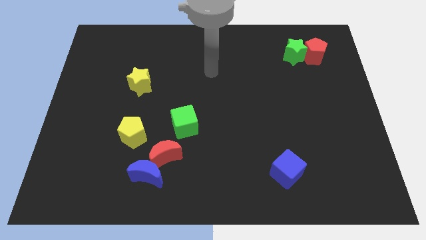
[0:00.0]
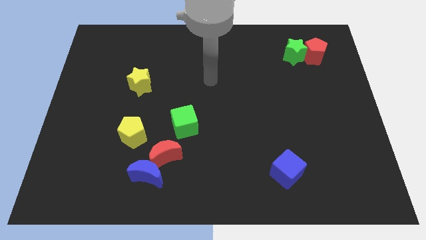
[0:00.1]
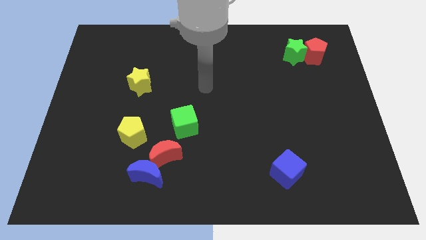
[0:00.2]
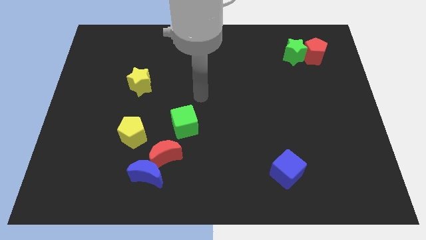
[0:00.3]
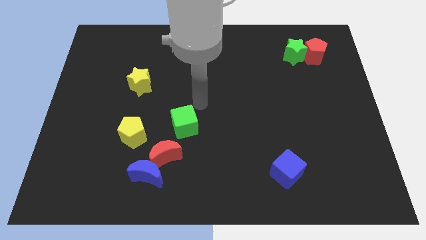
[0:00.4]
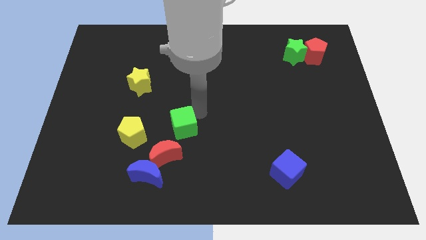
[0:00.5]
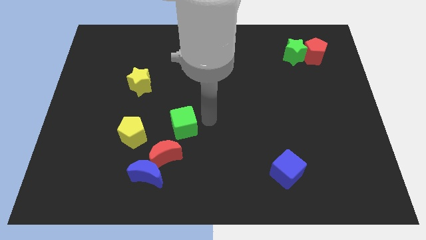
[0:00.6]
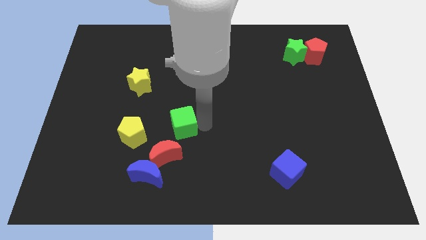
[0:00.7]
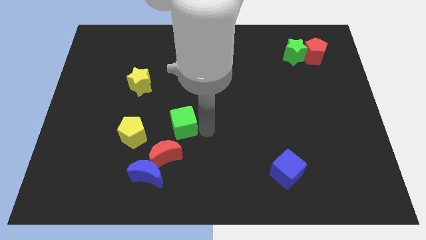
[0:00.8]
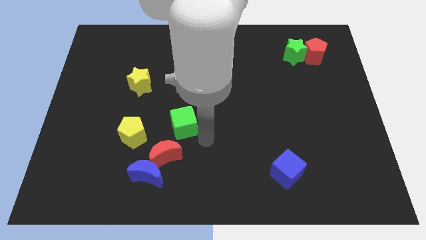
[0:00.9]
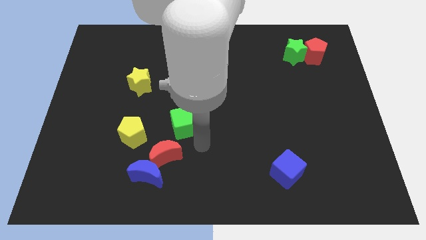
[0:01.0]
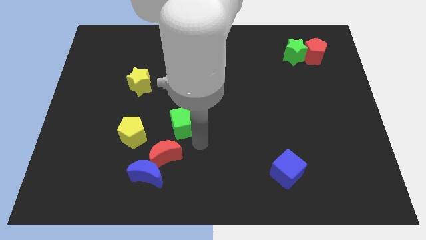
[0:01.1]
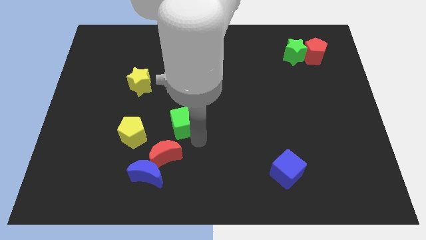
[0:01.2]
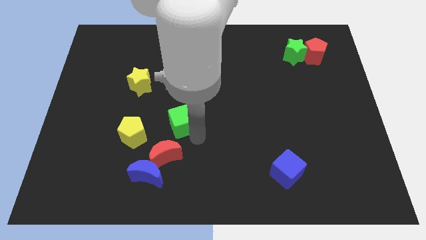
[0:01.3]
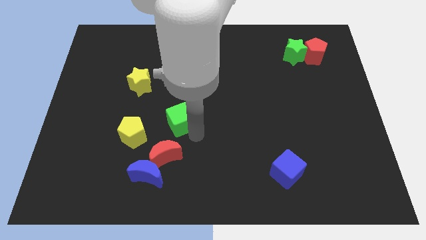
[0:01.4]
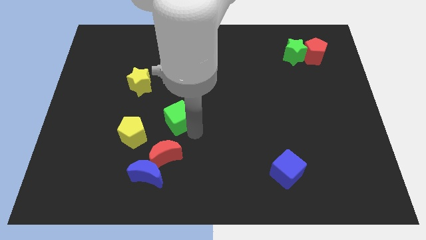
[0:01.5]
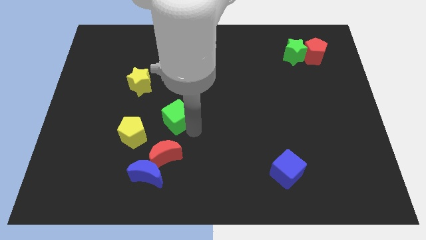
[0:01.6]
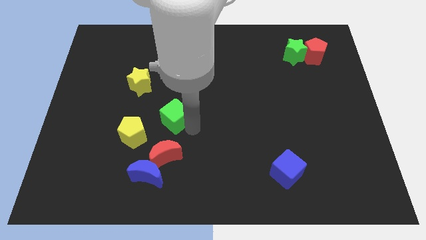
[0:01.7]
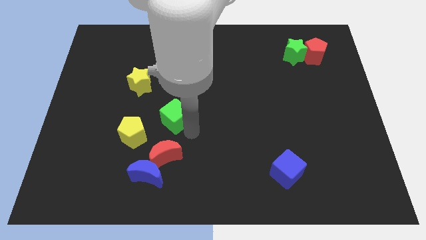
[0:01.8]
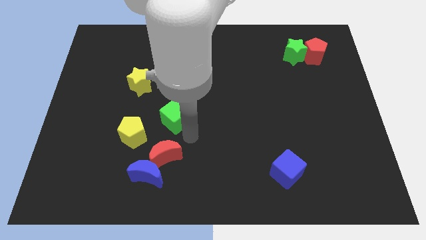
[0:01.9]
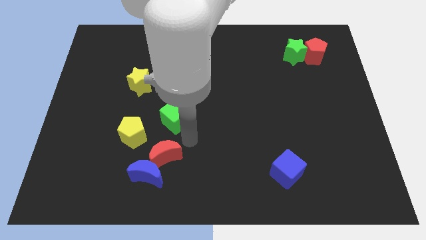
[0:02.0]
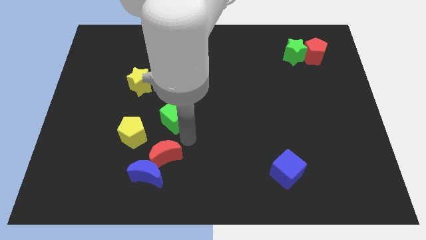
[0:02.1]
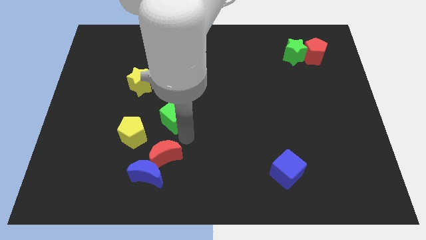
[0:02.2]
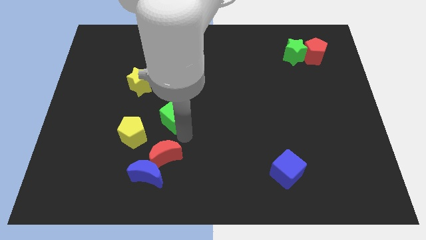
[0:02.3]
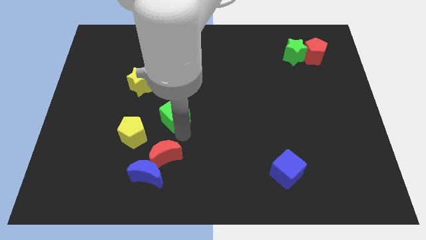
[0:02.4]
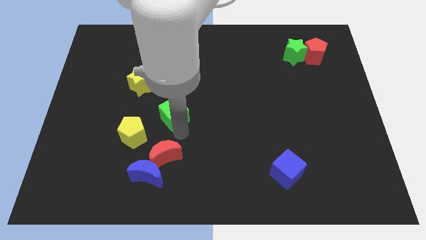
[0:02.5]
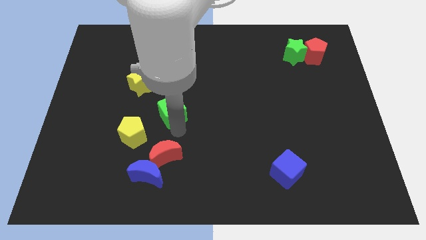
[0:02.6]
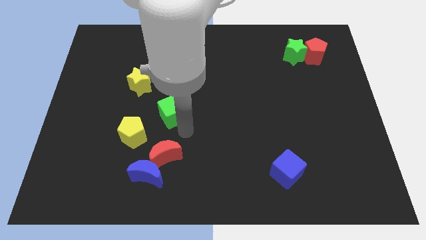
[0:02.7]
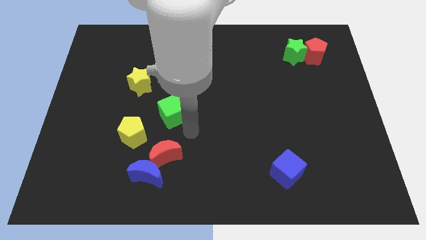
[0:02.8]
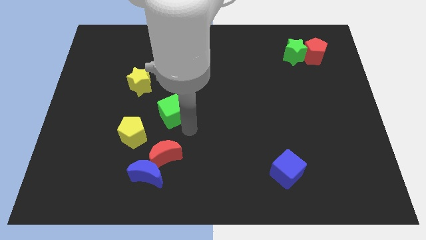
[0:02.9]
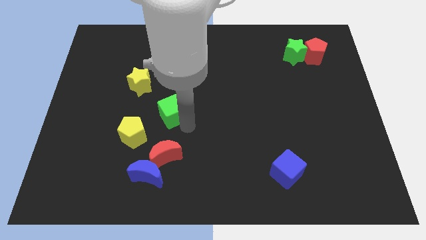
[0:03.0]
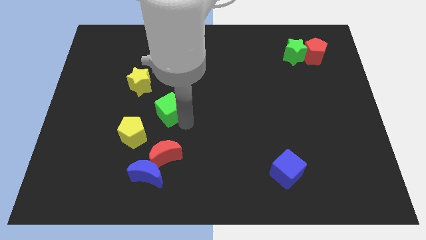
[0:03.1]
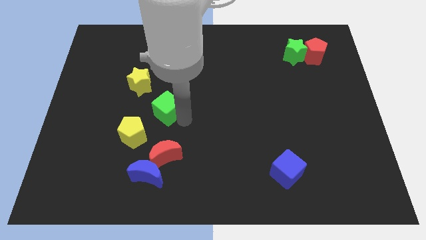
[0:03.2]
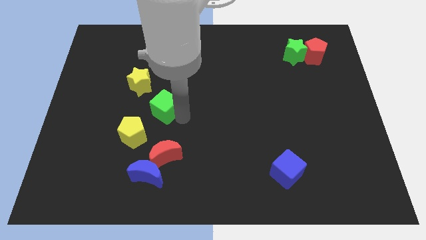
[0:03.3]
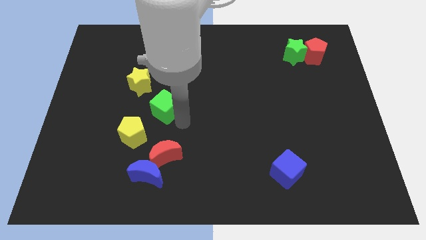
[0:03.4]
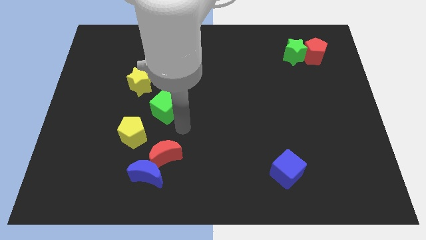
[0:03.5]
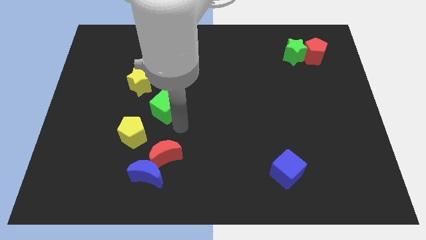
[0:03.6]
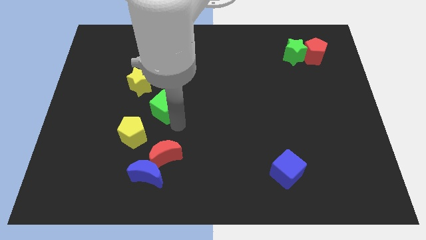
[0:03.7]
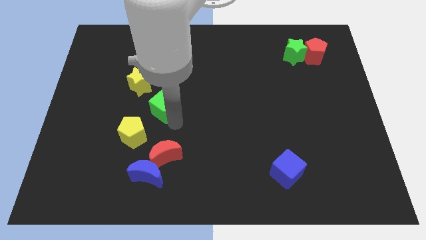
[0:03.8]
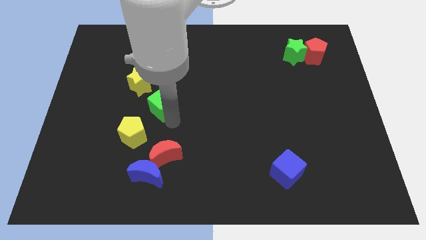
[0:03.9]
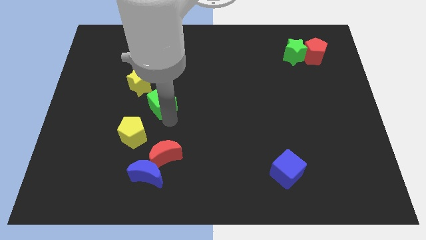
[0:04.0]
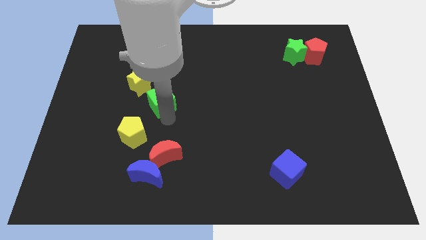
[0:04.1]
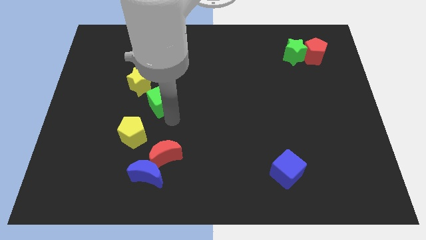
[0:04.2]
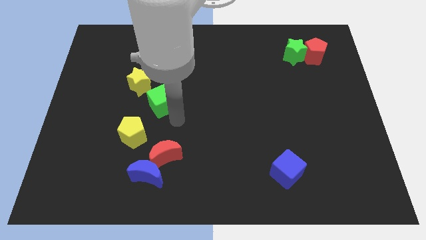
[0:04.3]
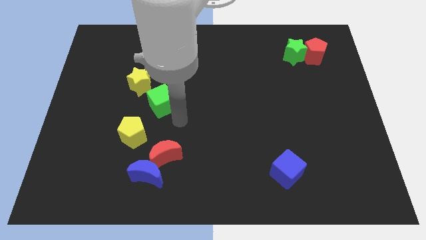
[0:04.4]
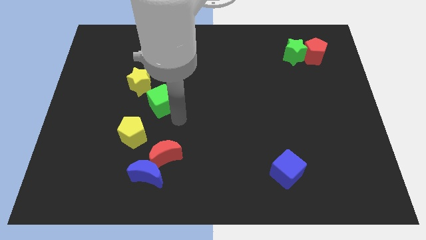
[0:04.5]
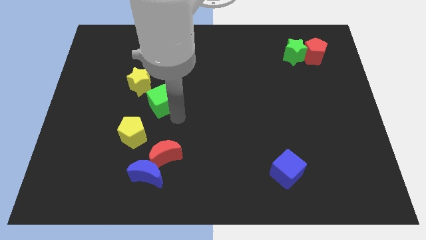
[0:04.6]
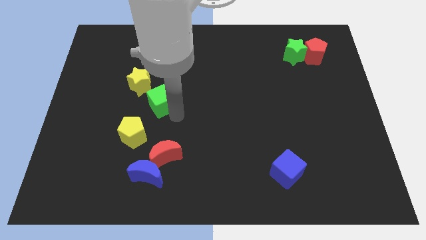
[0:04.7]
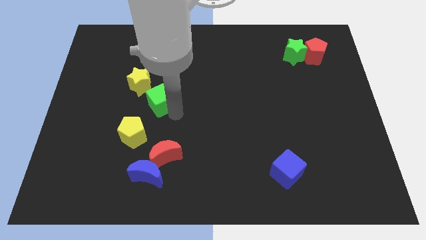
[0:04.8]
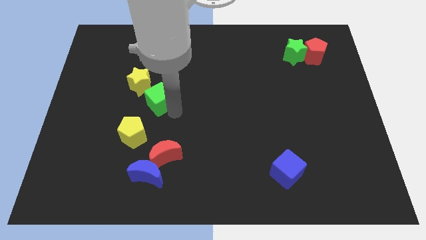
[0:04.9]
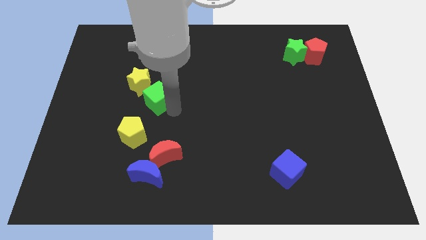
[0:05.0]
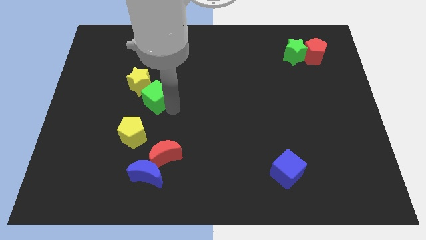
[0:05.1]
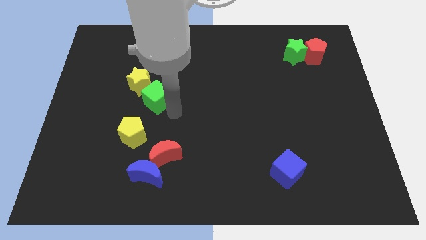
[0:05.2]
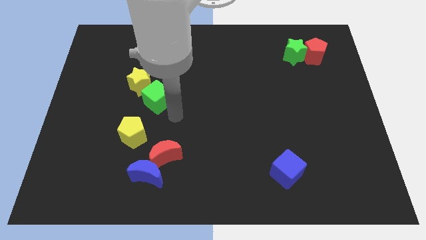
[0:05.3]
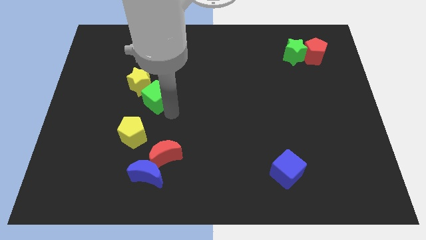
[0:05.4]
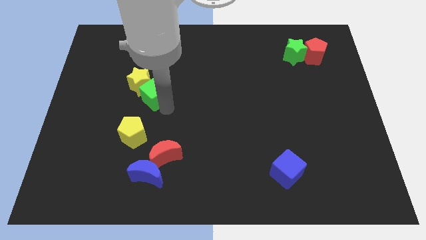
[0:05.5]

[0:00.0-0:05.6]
slide the green cube close to the yellow star

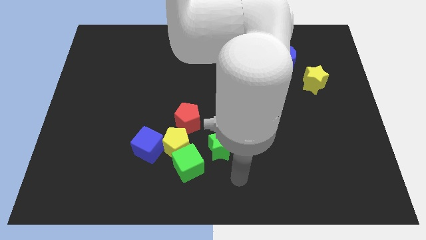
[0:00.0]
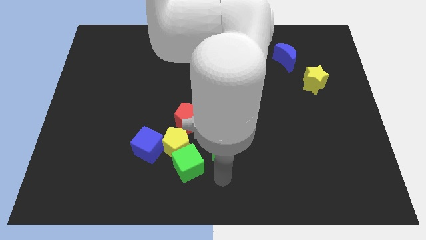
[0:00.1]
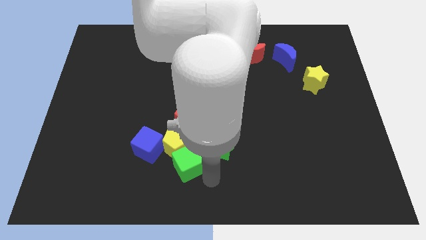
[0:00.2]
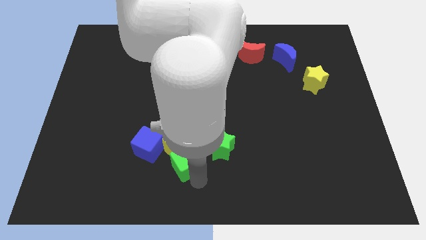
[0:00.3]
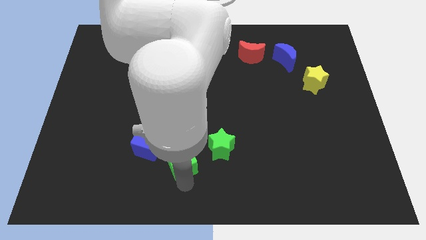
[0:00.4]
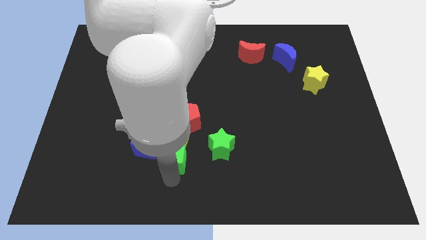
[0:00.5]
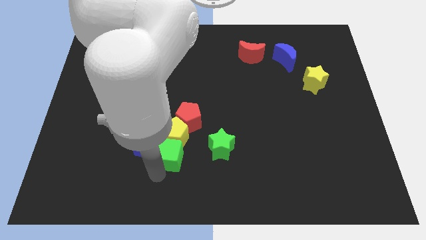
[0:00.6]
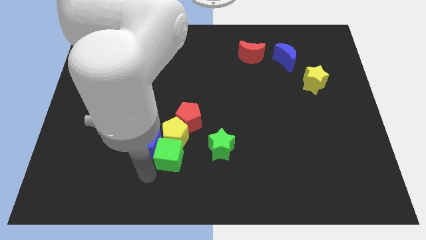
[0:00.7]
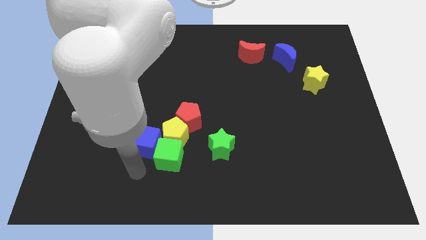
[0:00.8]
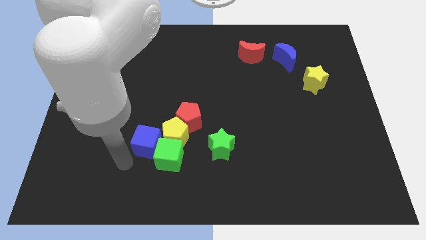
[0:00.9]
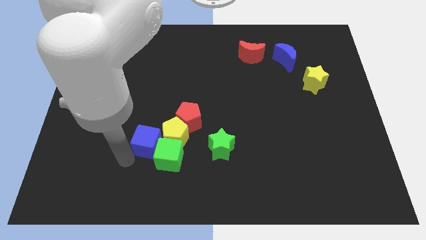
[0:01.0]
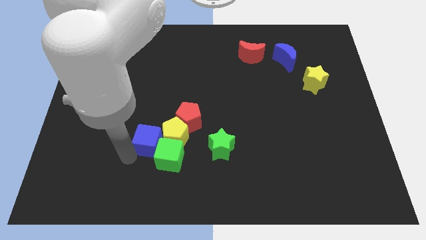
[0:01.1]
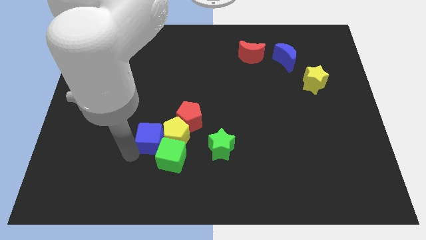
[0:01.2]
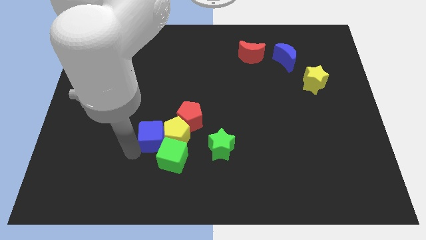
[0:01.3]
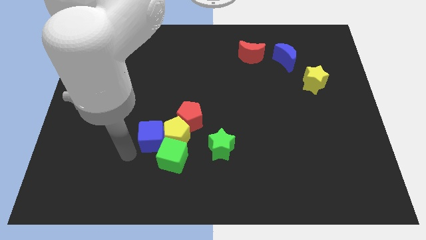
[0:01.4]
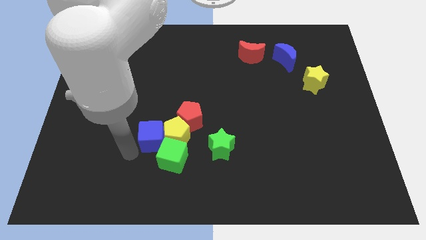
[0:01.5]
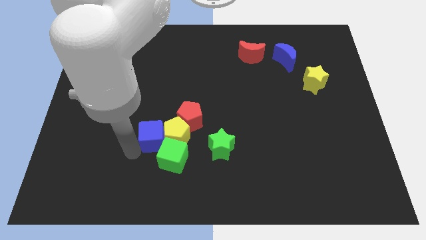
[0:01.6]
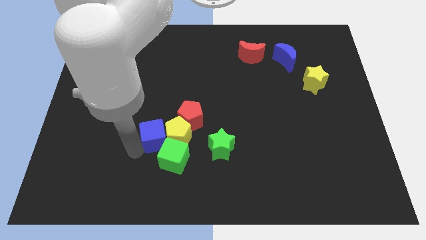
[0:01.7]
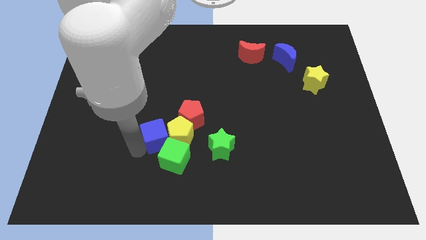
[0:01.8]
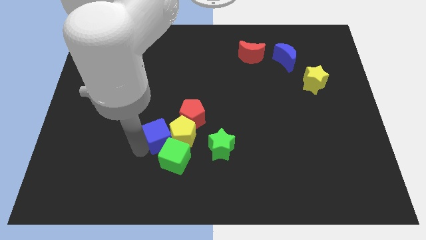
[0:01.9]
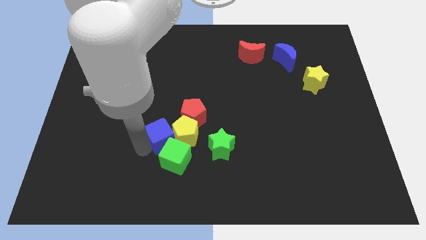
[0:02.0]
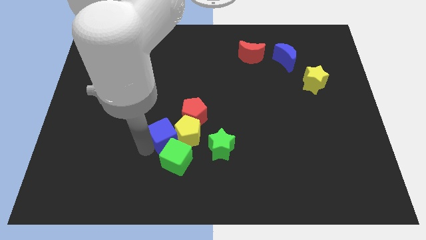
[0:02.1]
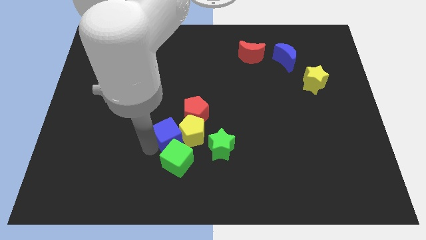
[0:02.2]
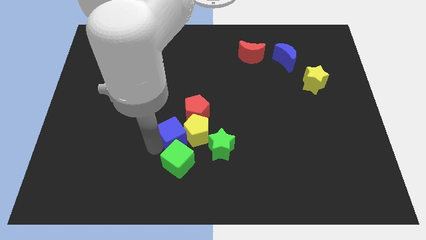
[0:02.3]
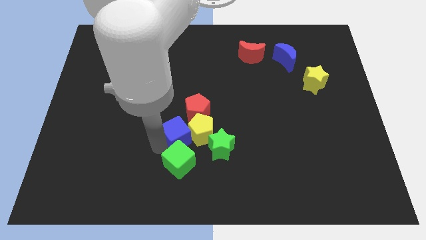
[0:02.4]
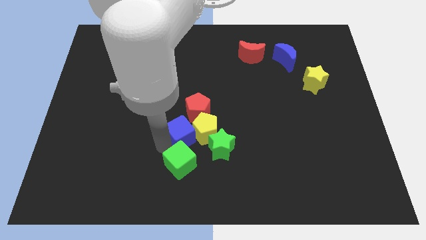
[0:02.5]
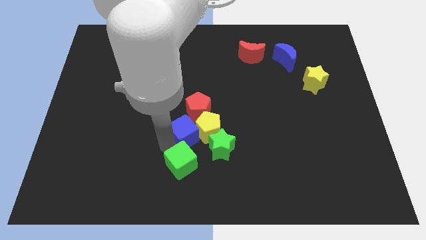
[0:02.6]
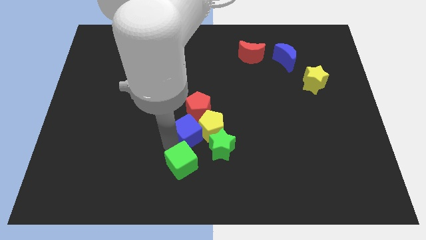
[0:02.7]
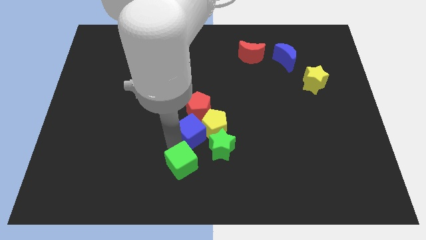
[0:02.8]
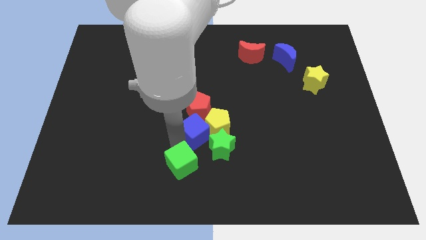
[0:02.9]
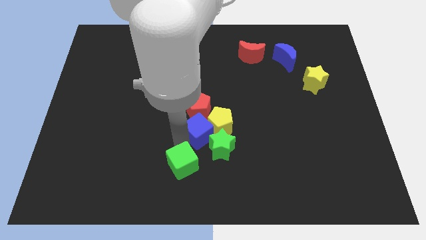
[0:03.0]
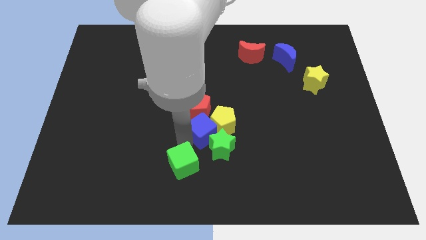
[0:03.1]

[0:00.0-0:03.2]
move the blue cube to the red pentagon
